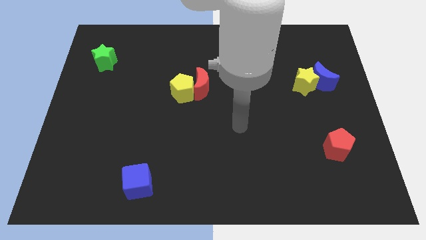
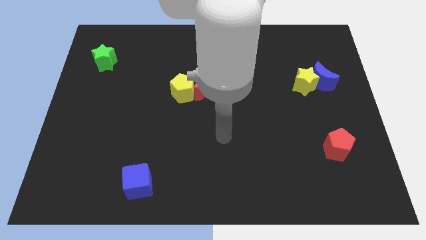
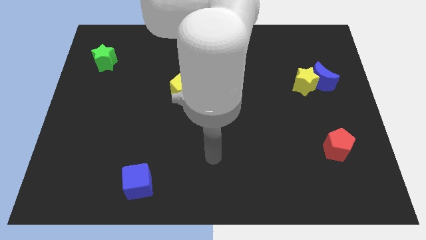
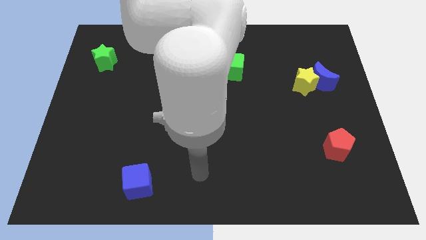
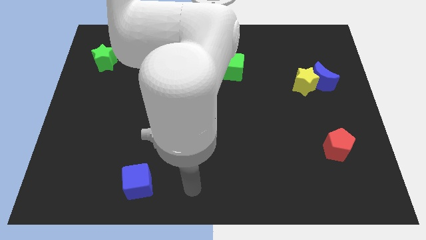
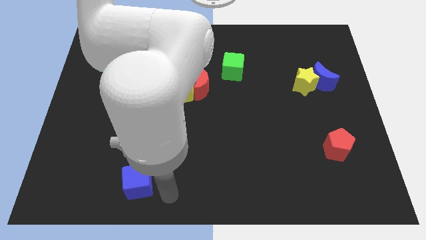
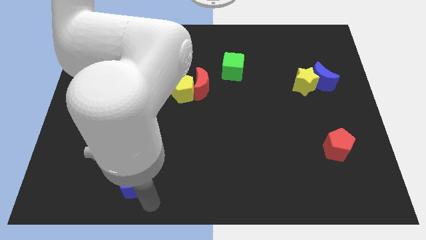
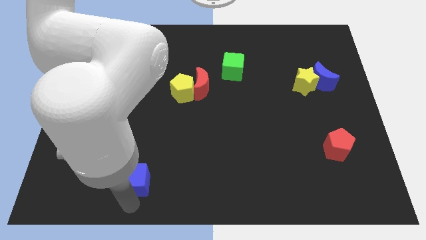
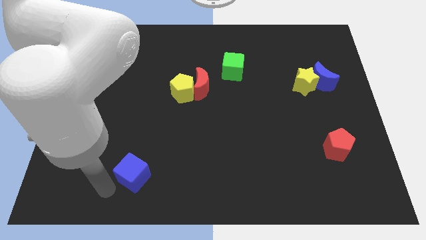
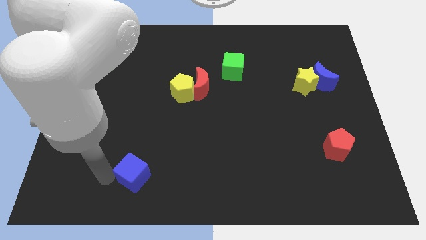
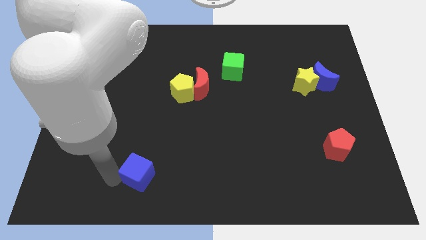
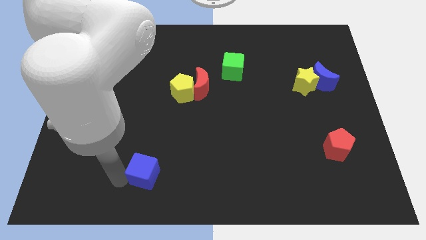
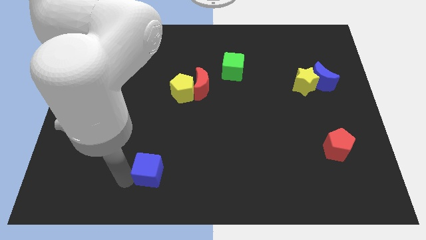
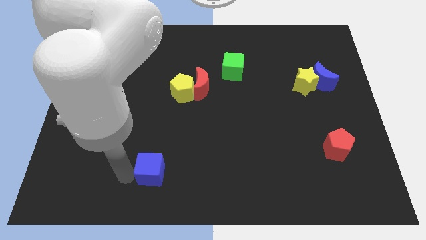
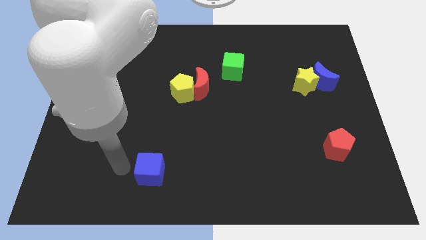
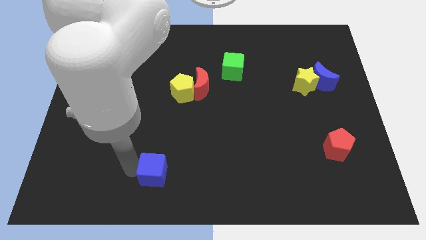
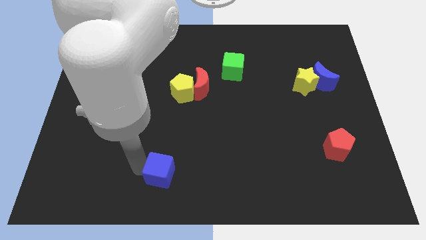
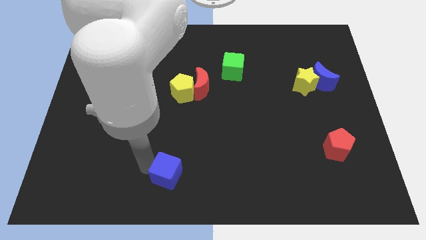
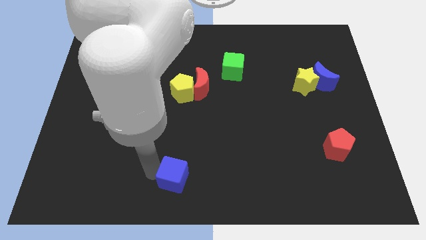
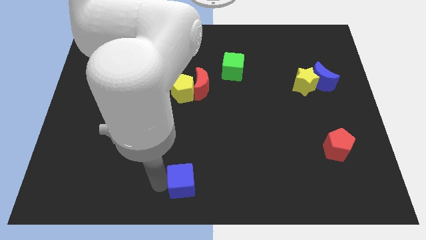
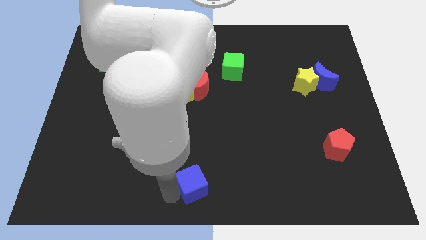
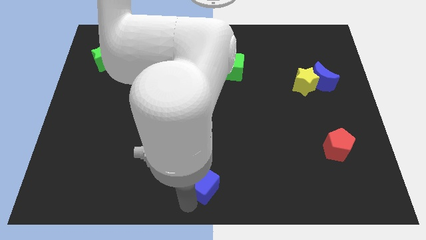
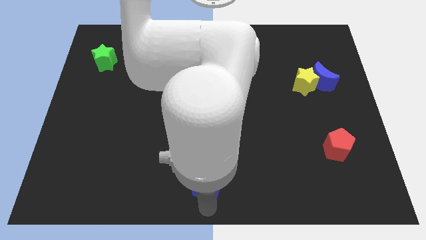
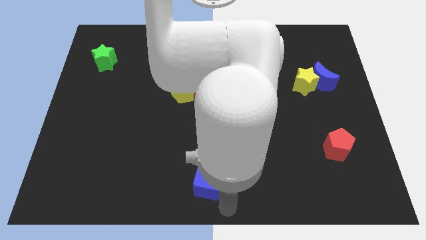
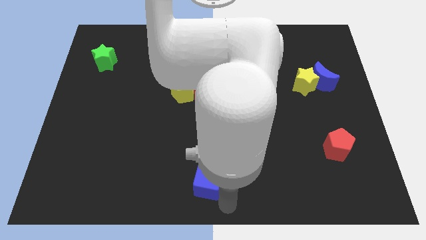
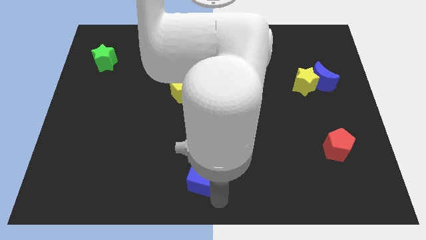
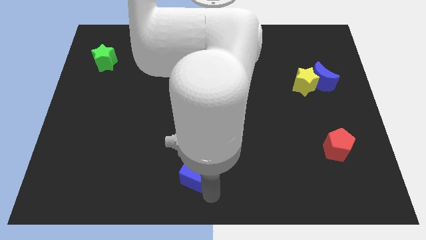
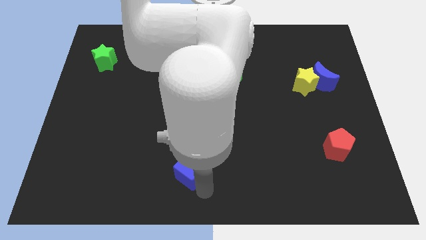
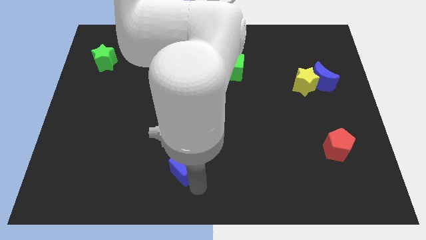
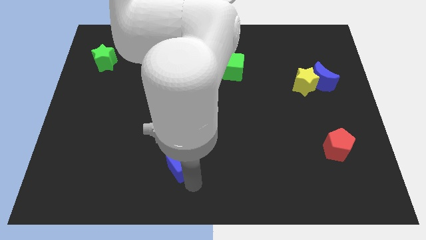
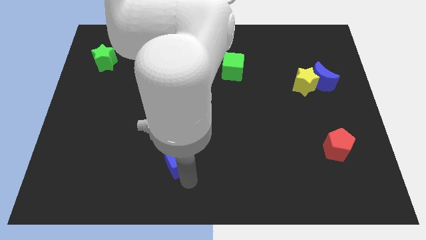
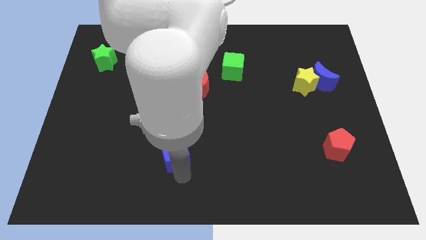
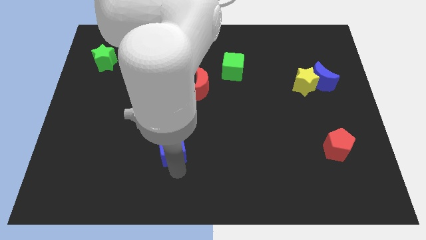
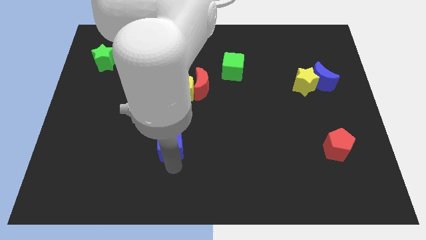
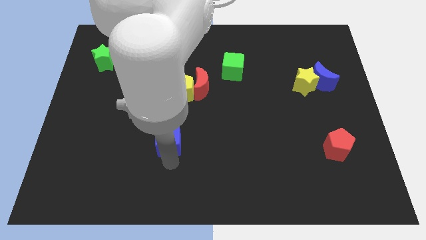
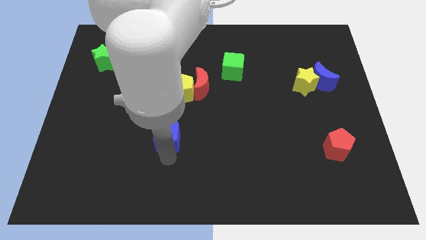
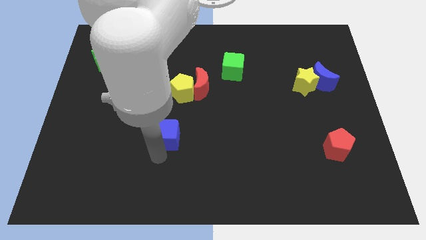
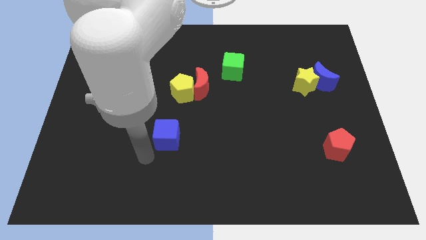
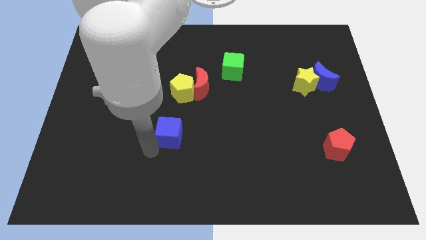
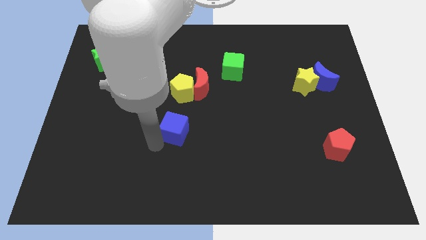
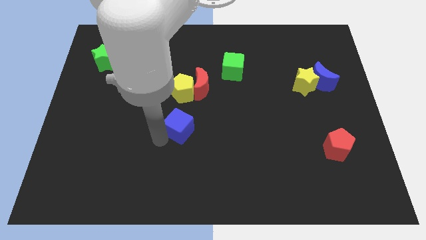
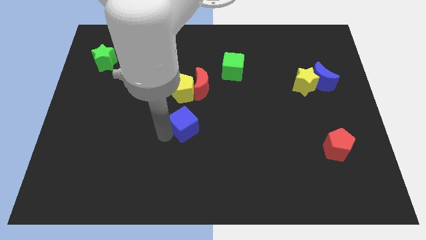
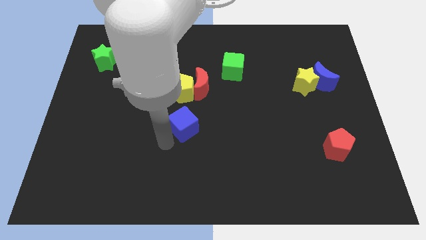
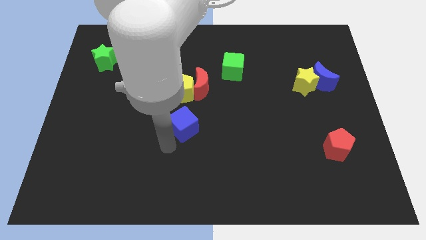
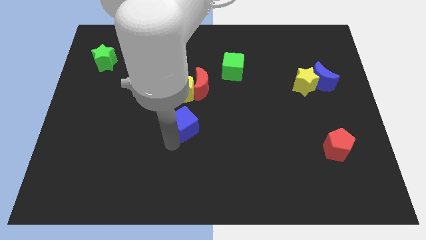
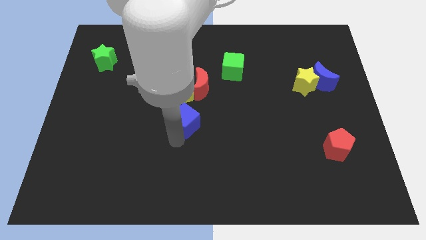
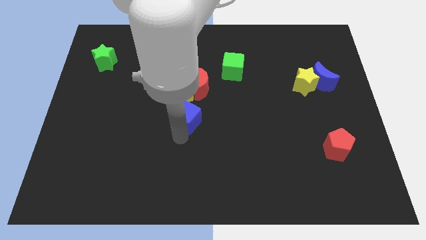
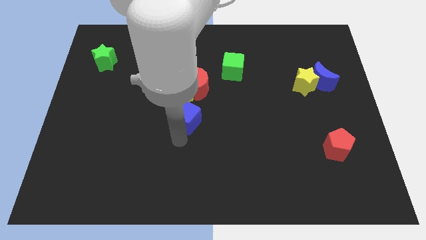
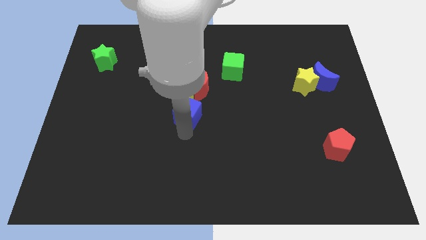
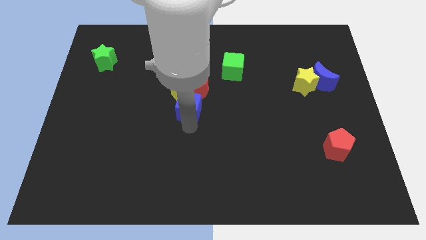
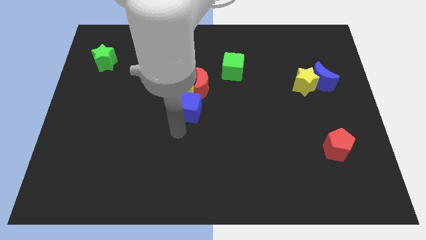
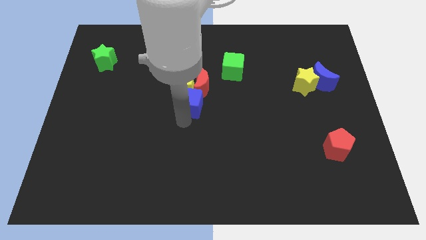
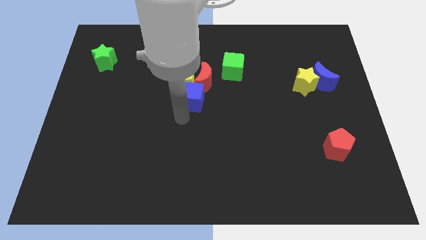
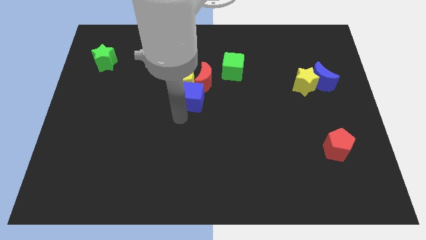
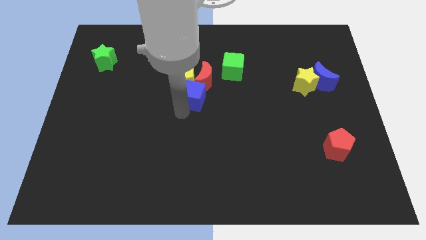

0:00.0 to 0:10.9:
put the blue cube next to the red moon

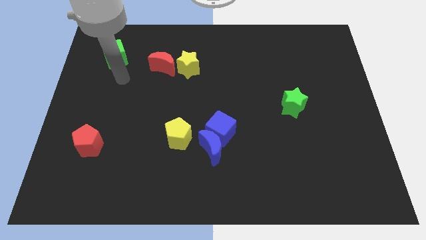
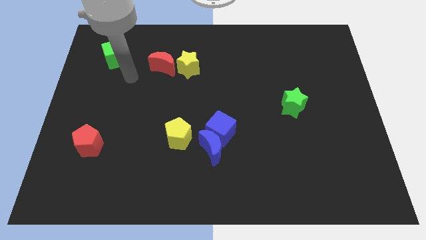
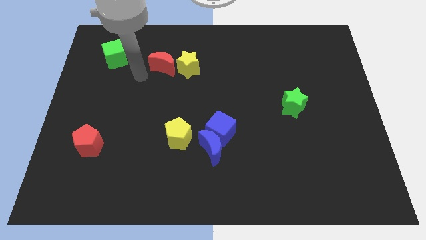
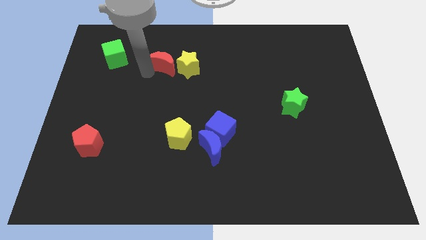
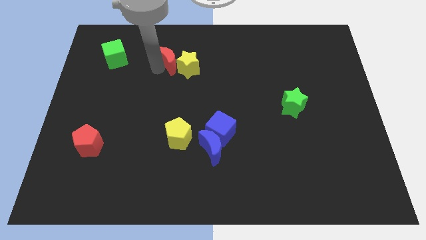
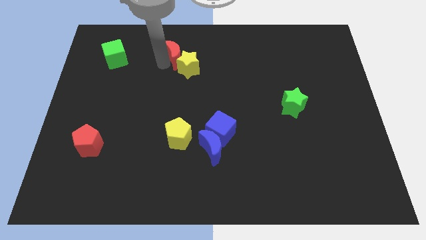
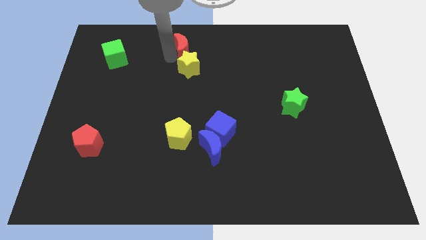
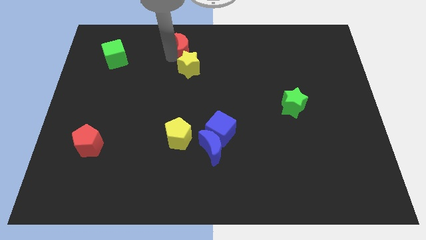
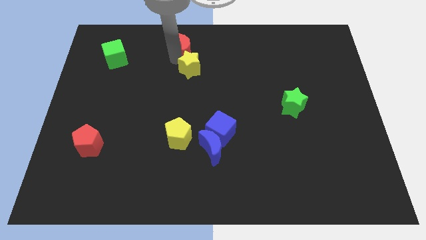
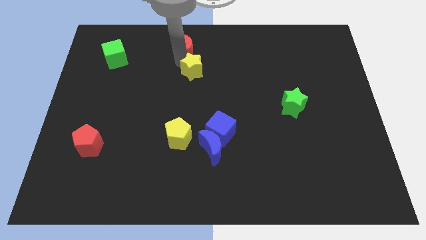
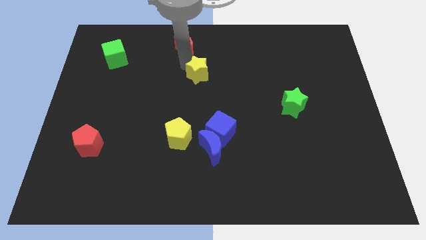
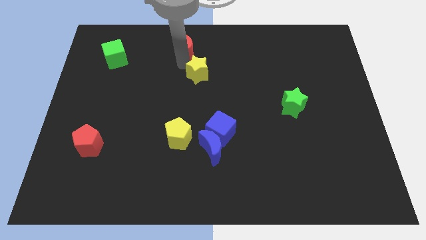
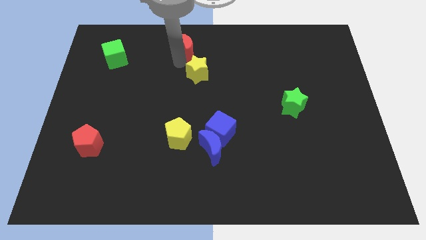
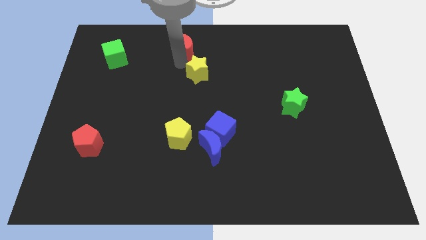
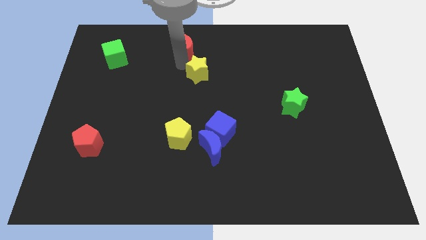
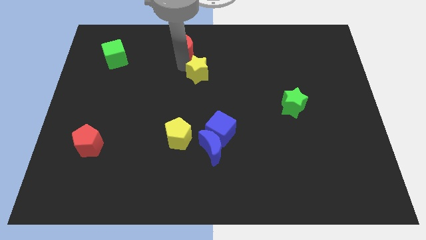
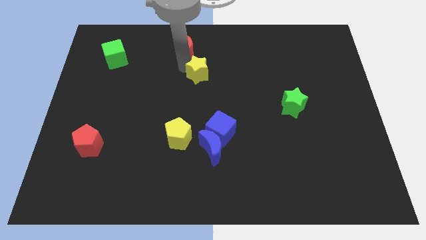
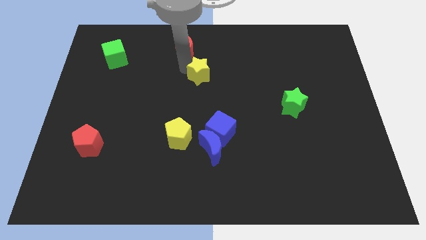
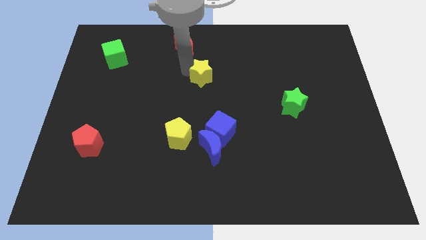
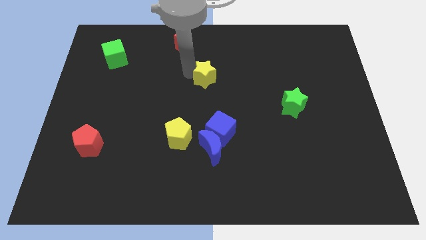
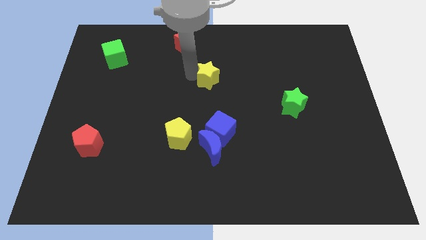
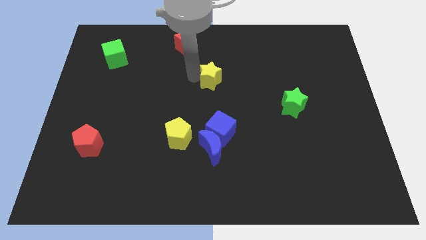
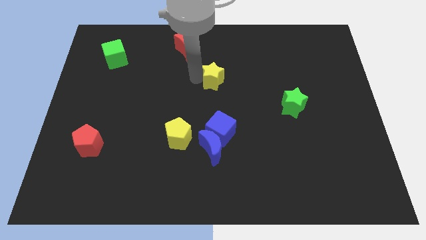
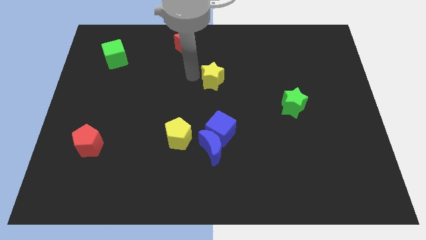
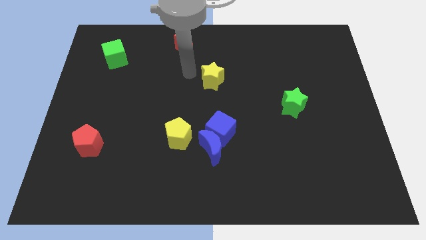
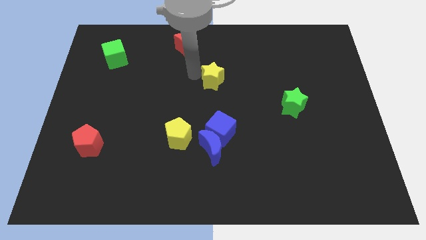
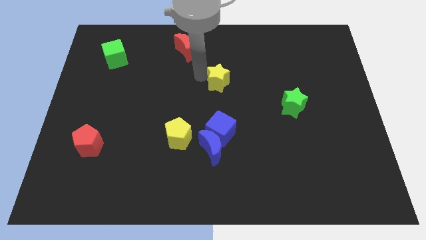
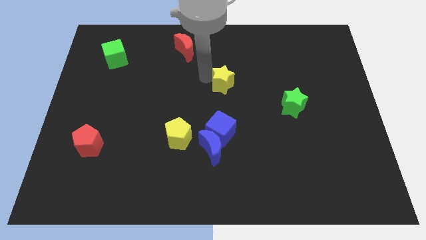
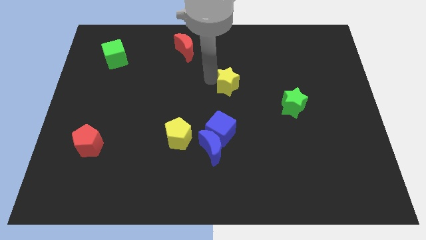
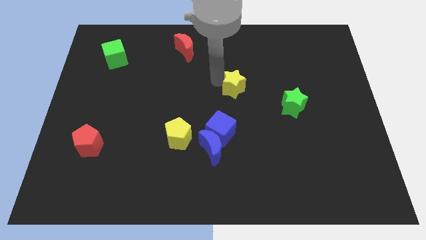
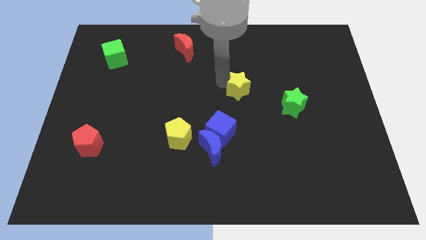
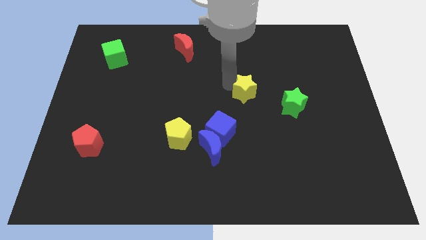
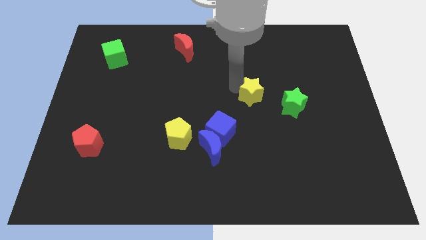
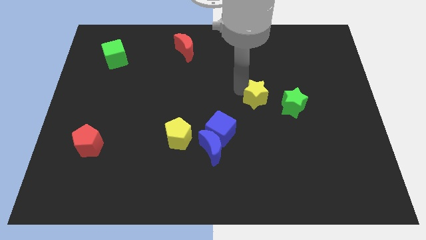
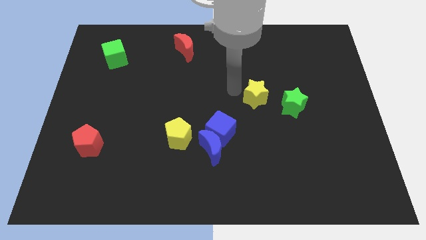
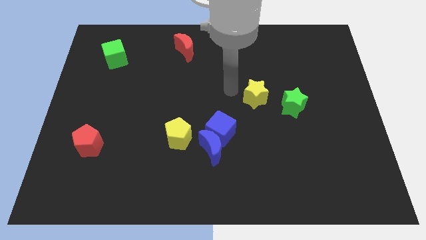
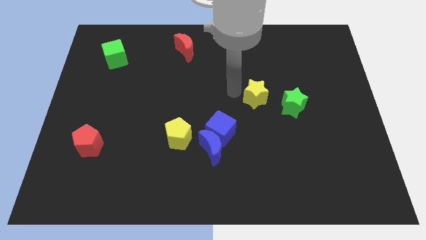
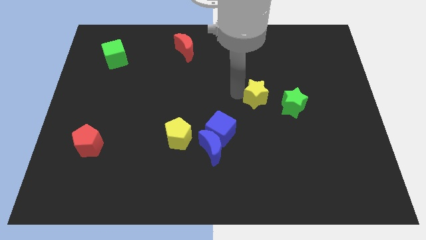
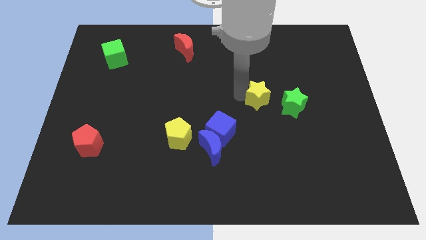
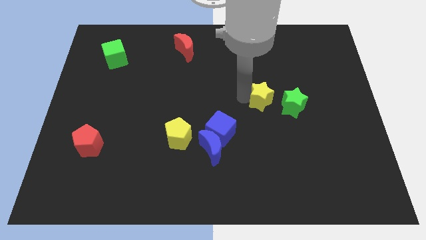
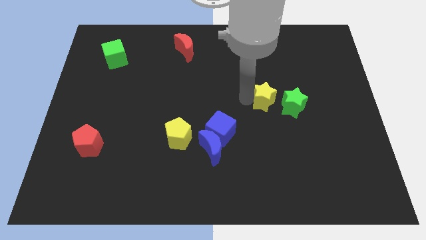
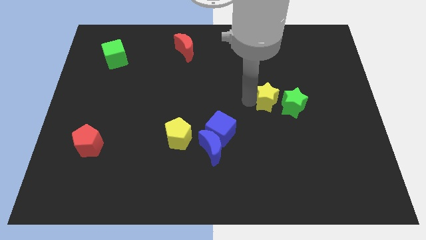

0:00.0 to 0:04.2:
put the yellow star next to the green star
